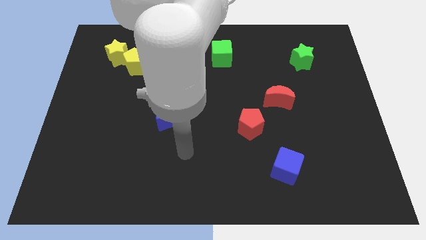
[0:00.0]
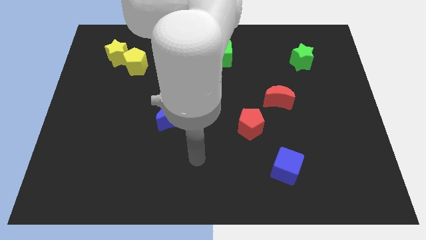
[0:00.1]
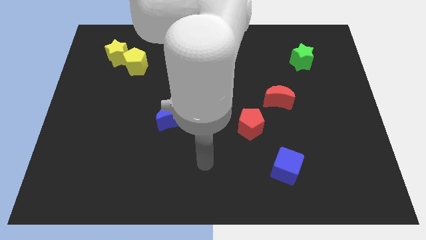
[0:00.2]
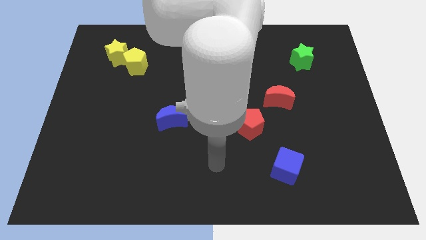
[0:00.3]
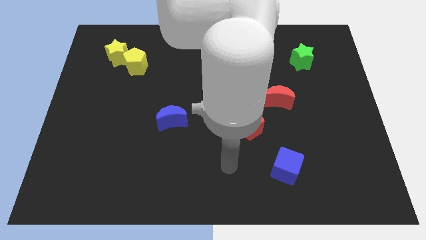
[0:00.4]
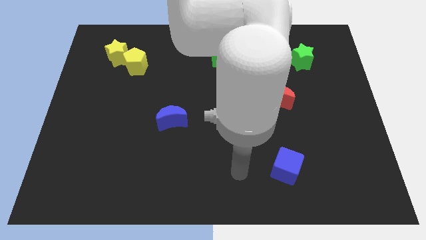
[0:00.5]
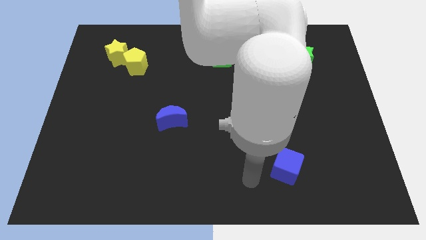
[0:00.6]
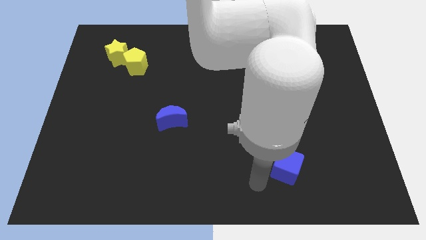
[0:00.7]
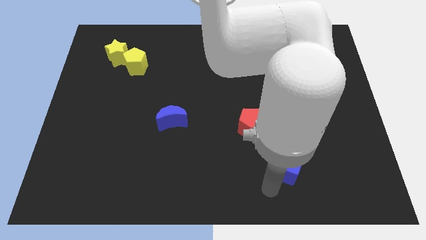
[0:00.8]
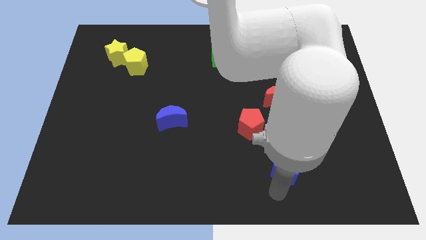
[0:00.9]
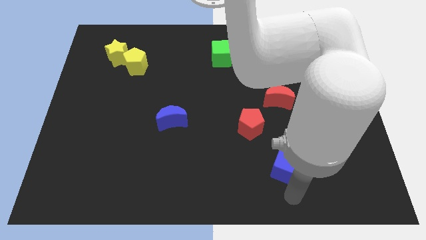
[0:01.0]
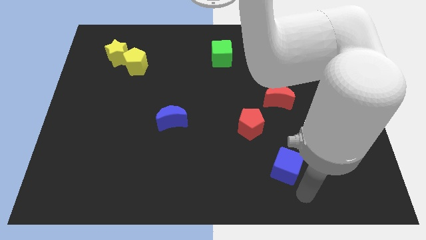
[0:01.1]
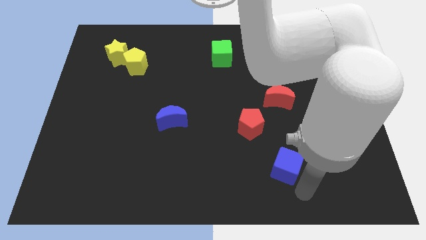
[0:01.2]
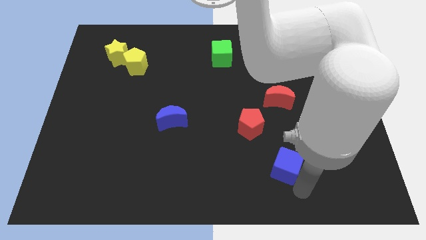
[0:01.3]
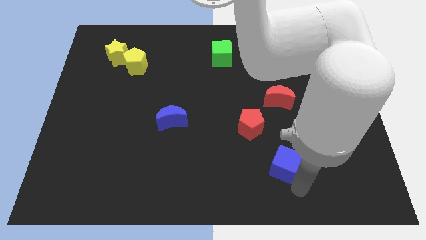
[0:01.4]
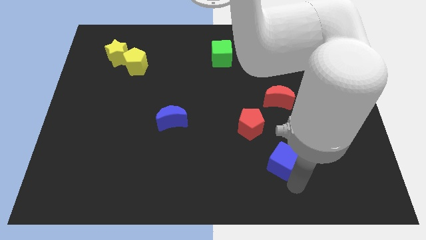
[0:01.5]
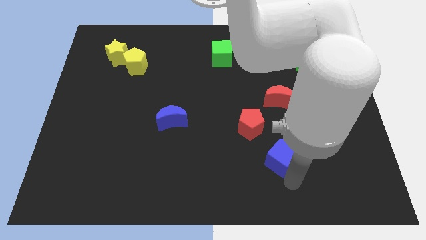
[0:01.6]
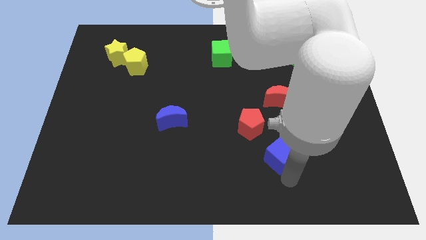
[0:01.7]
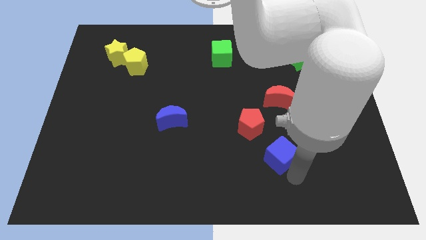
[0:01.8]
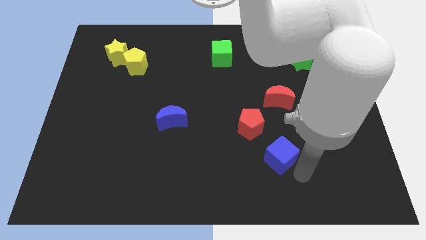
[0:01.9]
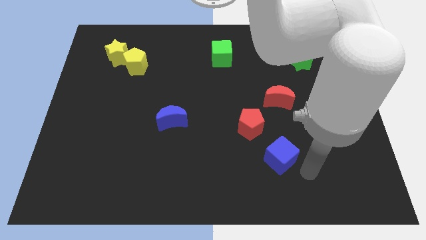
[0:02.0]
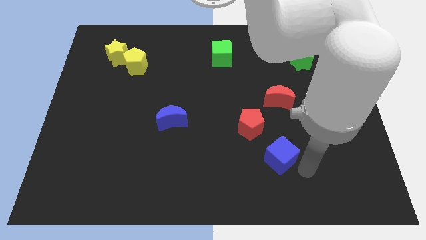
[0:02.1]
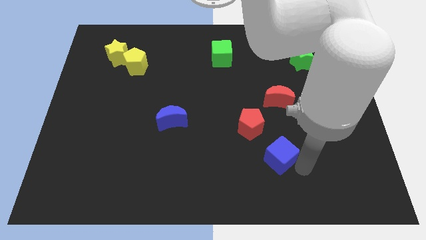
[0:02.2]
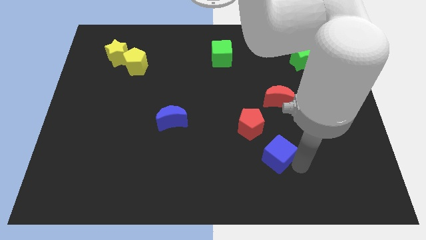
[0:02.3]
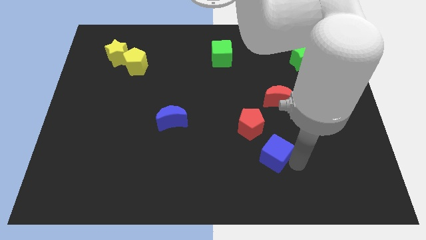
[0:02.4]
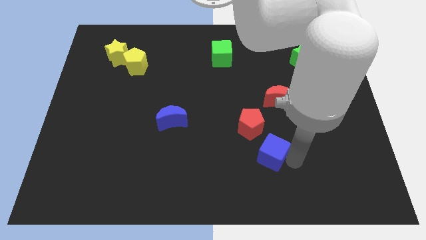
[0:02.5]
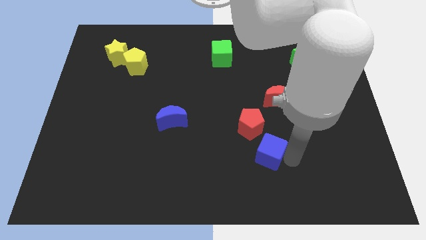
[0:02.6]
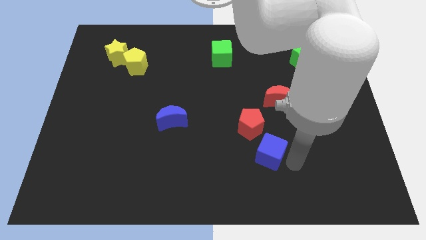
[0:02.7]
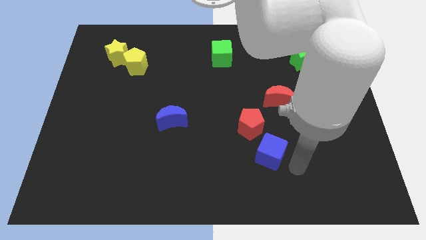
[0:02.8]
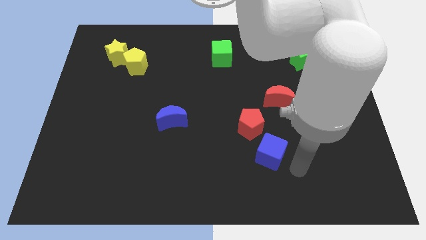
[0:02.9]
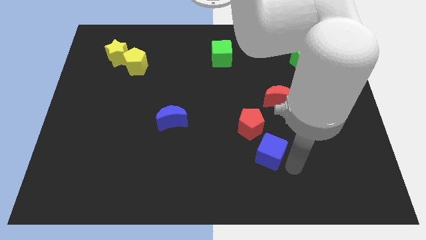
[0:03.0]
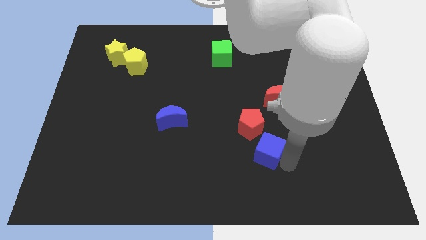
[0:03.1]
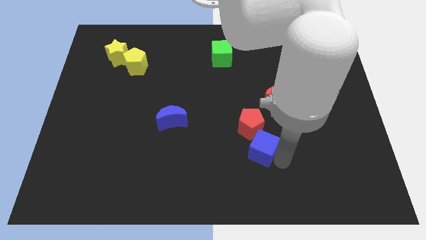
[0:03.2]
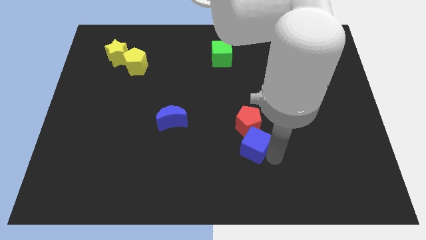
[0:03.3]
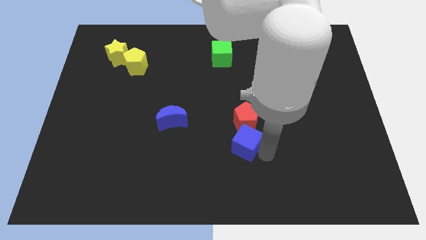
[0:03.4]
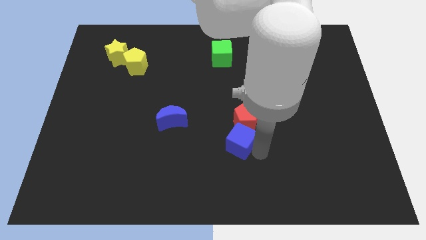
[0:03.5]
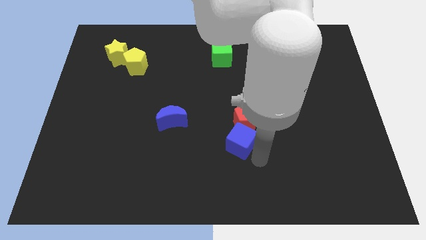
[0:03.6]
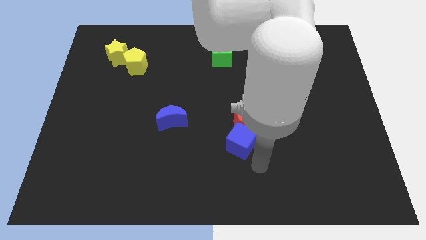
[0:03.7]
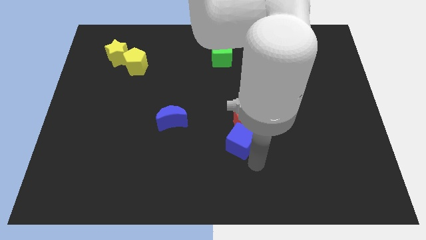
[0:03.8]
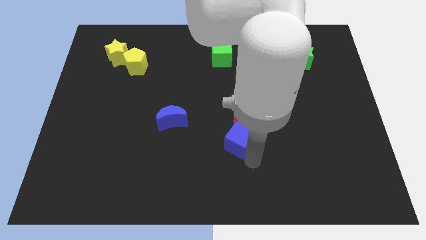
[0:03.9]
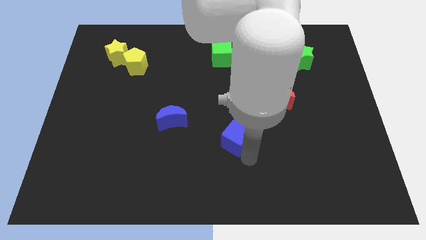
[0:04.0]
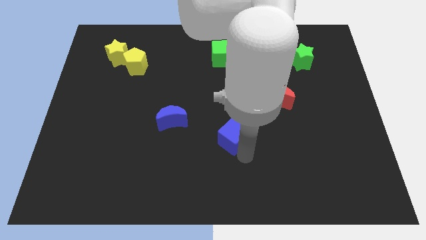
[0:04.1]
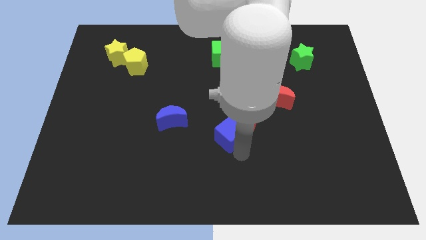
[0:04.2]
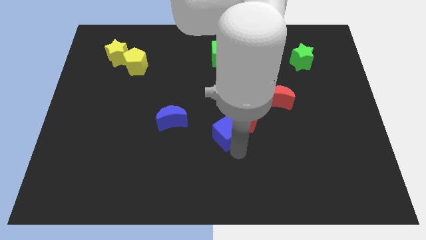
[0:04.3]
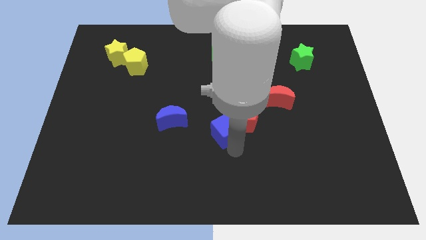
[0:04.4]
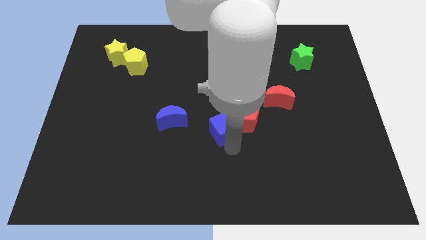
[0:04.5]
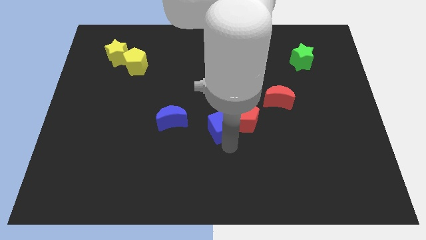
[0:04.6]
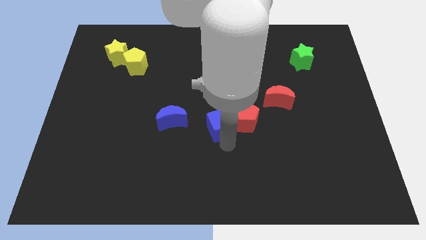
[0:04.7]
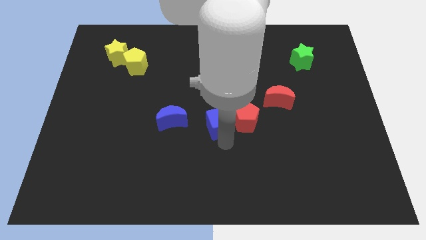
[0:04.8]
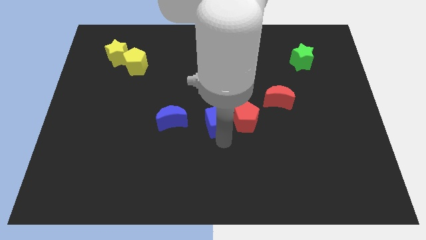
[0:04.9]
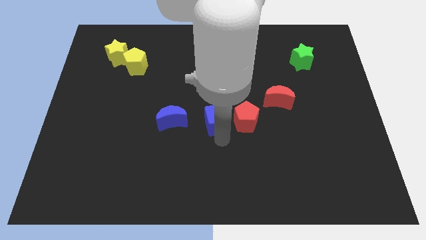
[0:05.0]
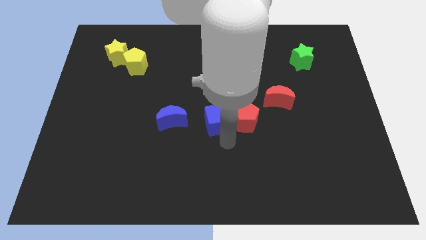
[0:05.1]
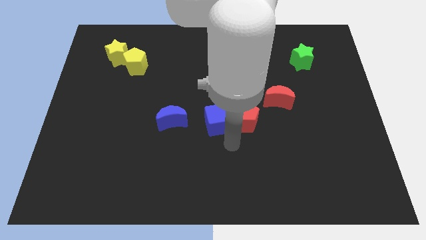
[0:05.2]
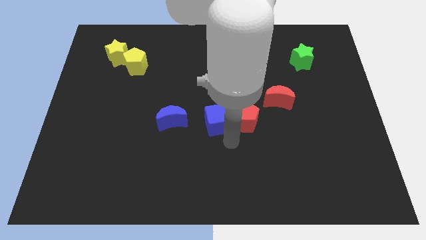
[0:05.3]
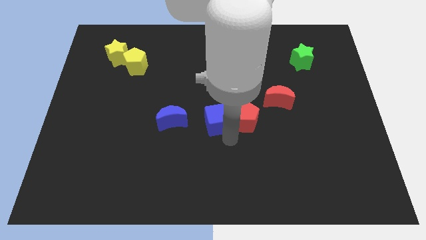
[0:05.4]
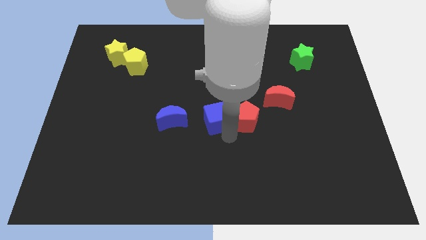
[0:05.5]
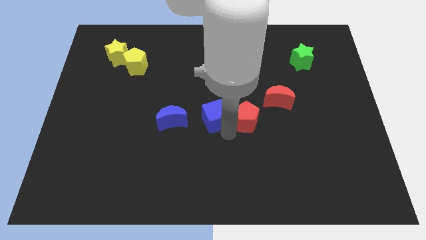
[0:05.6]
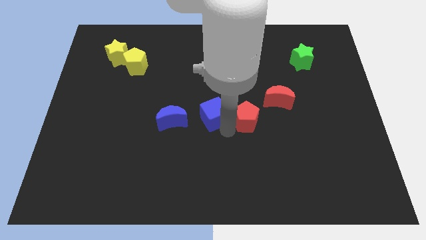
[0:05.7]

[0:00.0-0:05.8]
slide the blue cube up and then to the left

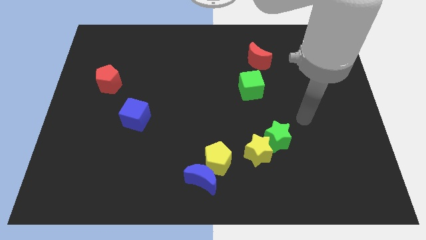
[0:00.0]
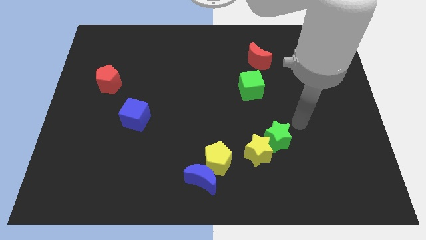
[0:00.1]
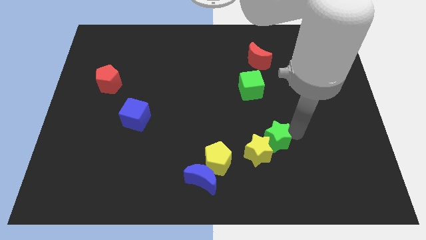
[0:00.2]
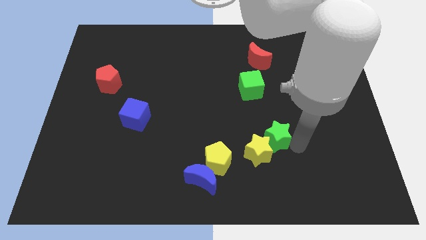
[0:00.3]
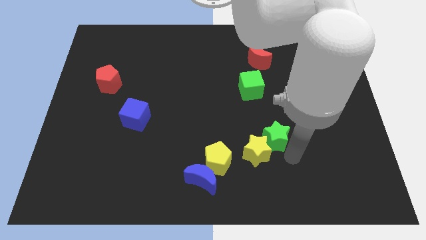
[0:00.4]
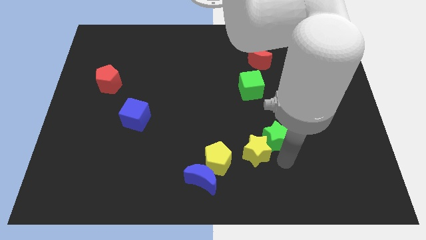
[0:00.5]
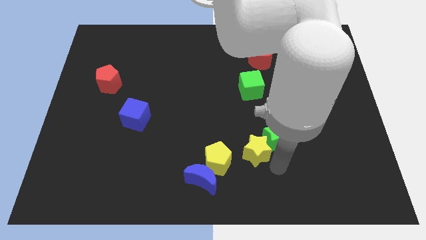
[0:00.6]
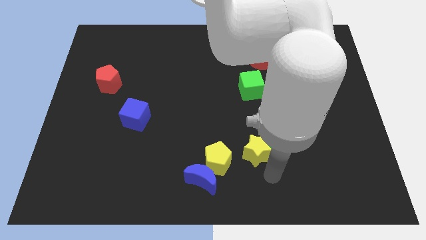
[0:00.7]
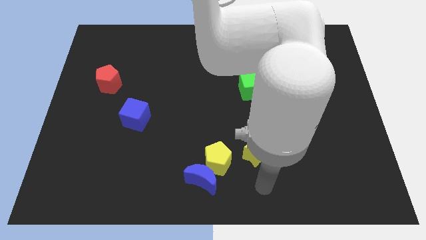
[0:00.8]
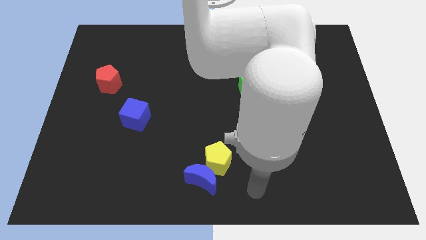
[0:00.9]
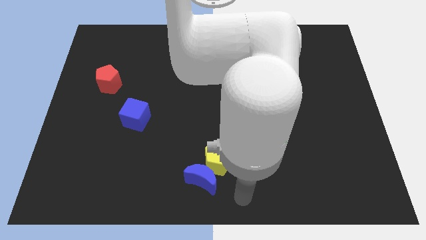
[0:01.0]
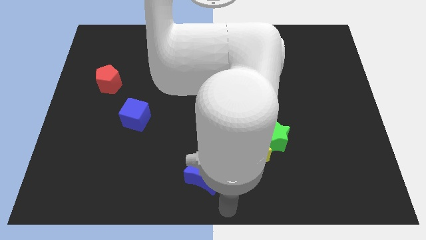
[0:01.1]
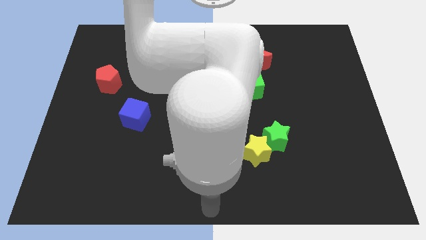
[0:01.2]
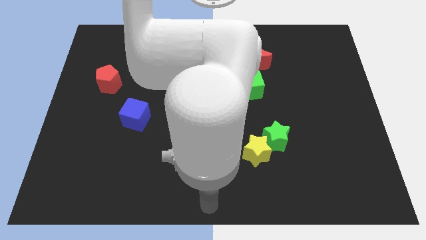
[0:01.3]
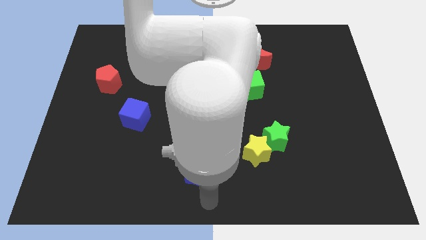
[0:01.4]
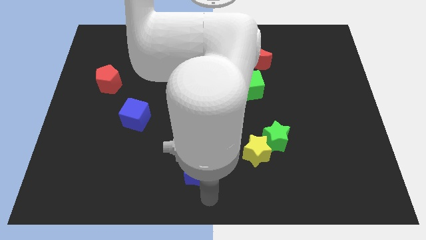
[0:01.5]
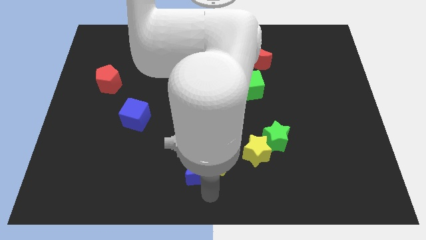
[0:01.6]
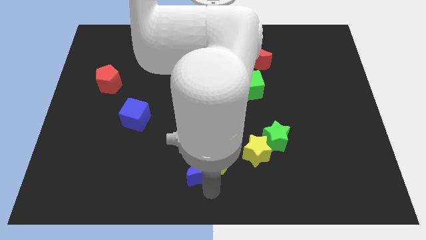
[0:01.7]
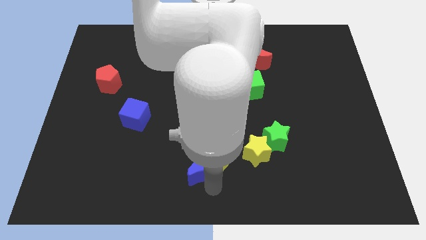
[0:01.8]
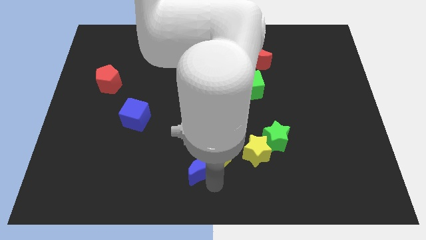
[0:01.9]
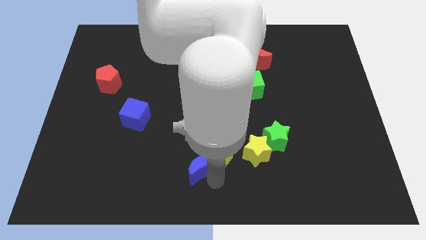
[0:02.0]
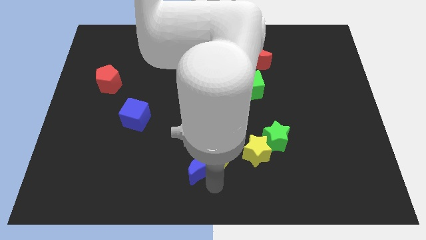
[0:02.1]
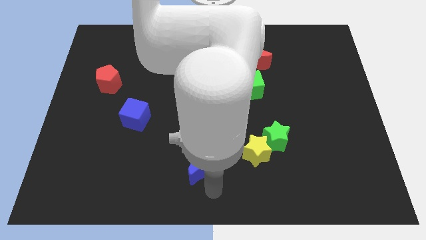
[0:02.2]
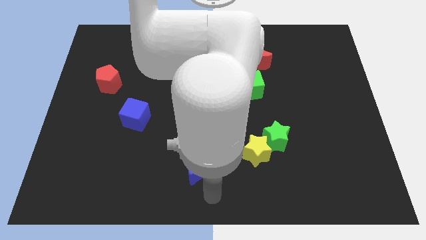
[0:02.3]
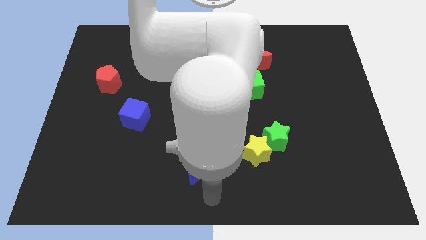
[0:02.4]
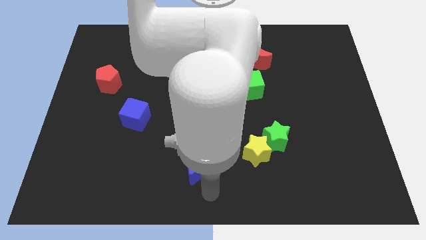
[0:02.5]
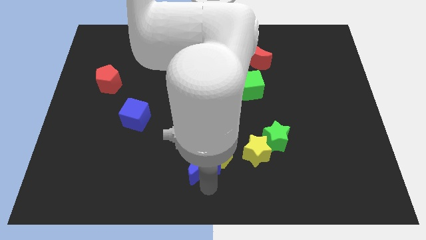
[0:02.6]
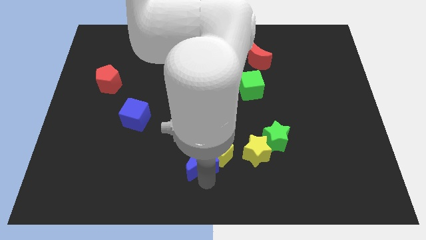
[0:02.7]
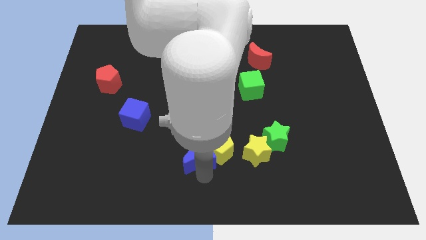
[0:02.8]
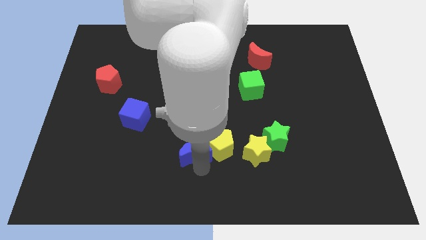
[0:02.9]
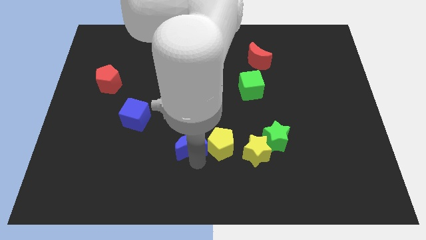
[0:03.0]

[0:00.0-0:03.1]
push the blue moon a bit up
